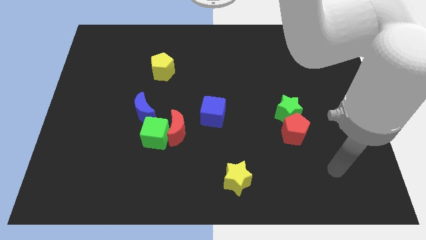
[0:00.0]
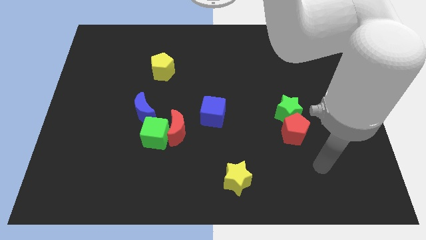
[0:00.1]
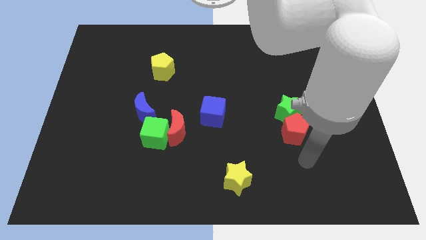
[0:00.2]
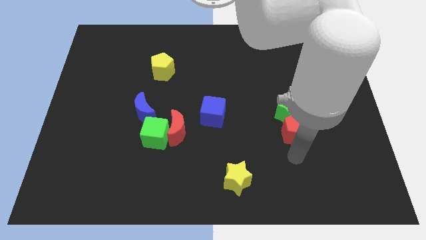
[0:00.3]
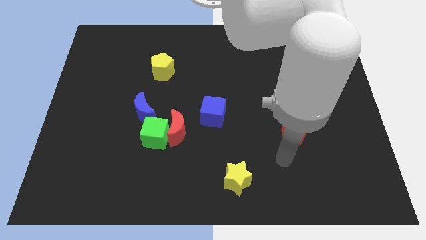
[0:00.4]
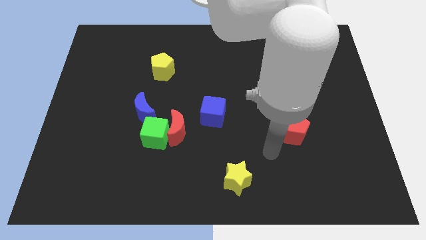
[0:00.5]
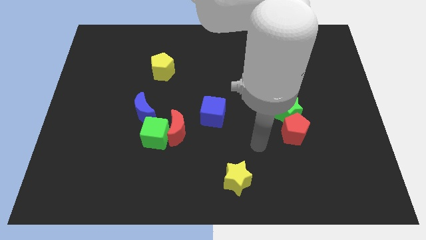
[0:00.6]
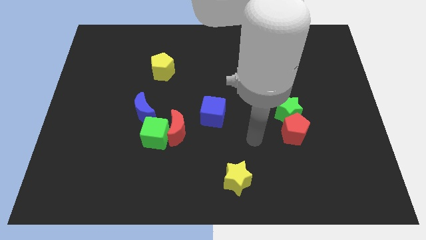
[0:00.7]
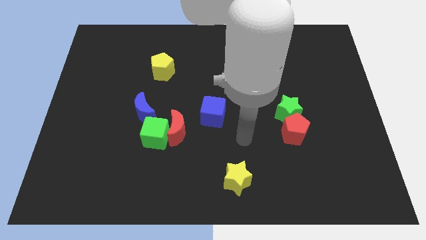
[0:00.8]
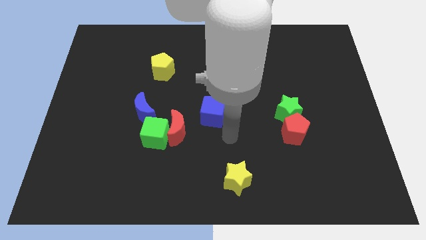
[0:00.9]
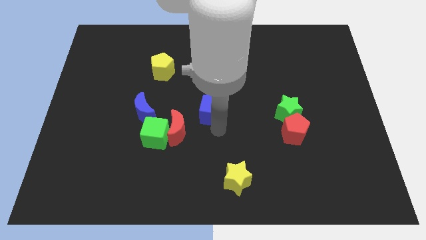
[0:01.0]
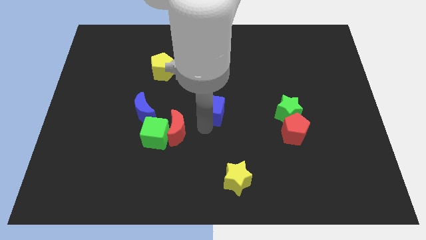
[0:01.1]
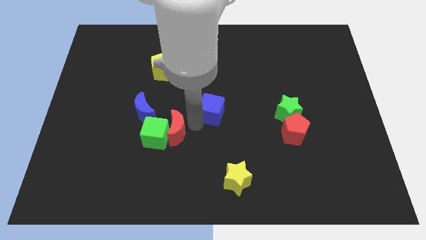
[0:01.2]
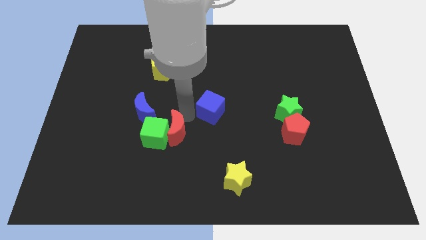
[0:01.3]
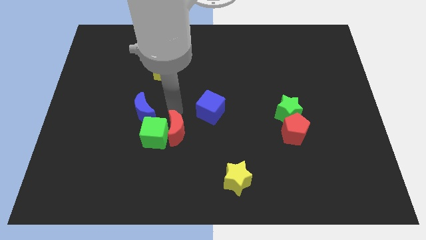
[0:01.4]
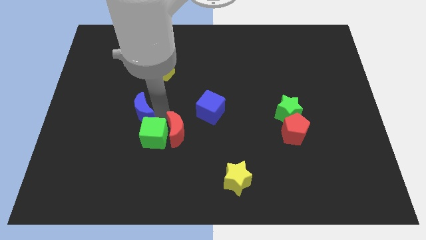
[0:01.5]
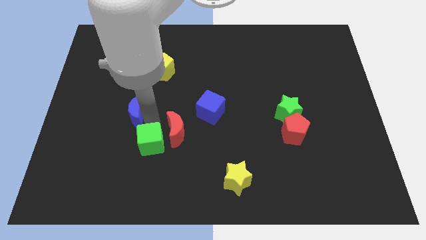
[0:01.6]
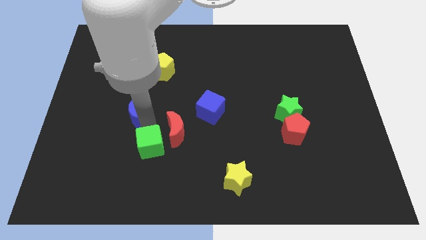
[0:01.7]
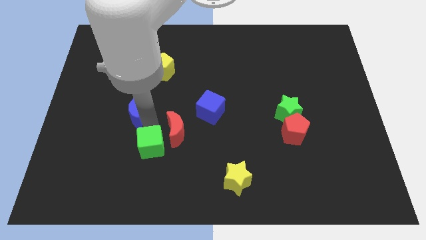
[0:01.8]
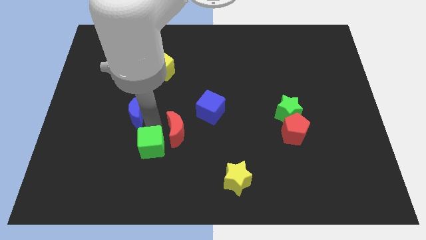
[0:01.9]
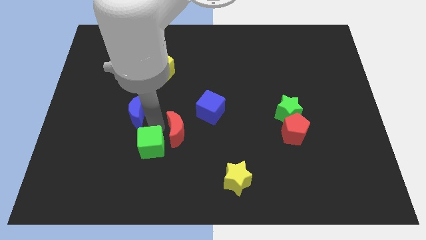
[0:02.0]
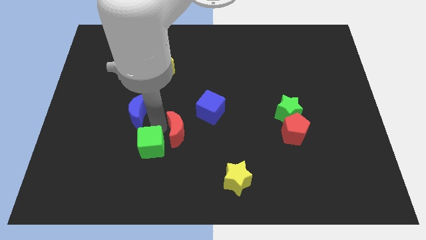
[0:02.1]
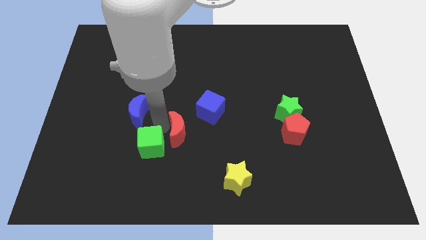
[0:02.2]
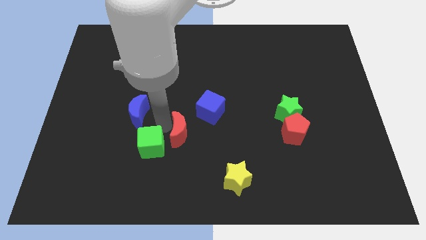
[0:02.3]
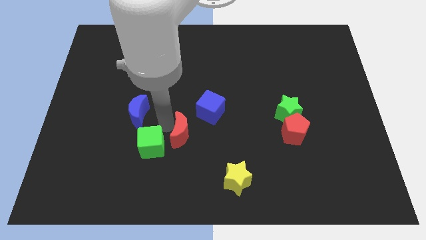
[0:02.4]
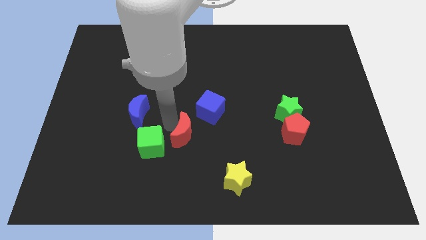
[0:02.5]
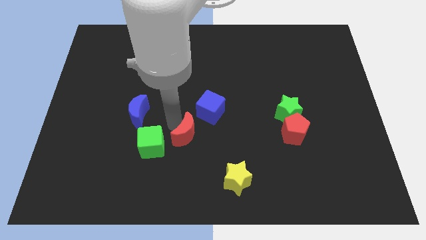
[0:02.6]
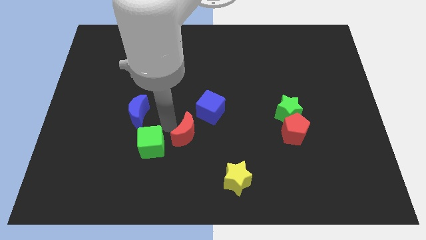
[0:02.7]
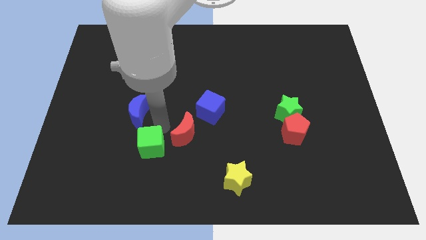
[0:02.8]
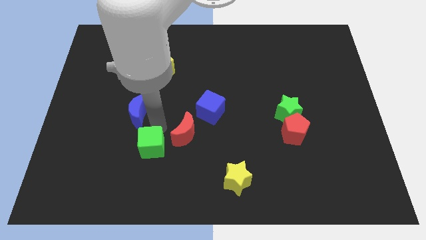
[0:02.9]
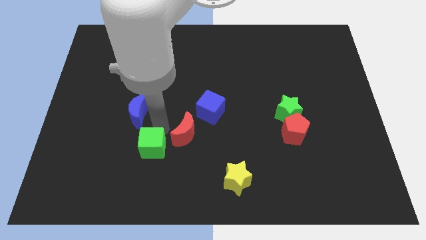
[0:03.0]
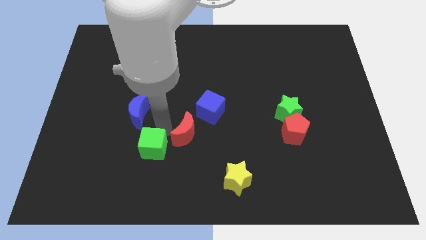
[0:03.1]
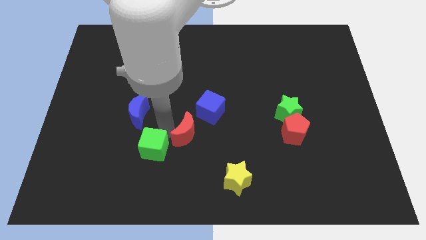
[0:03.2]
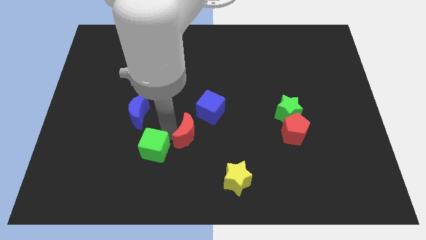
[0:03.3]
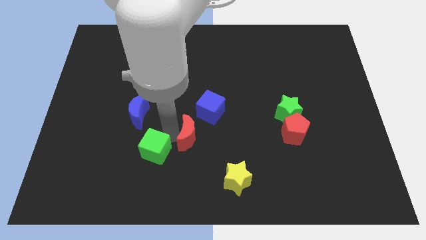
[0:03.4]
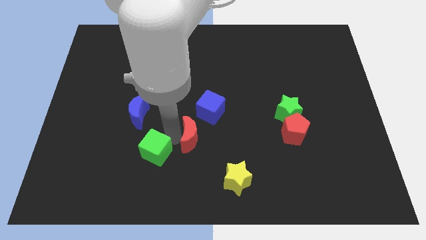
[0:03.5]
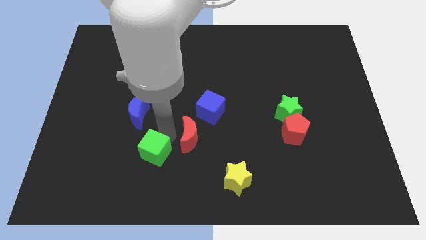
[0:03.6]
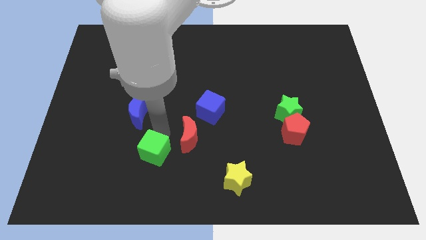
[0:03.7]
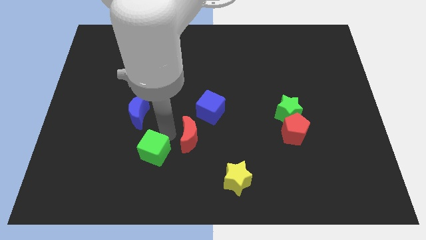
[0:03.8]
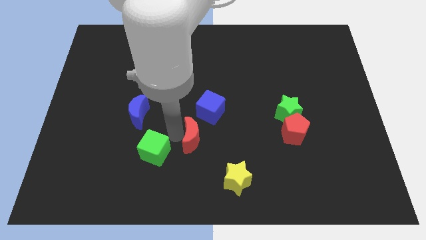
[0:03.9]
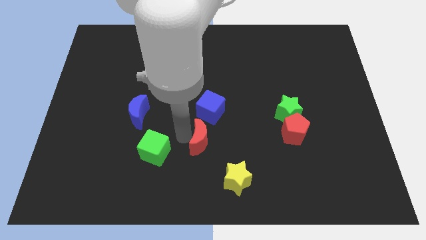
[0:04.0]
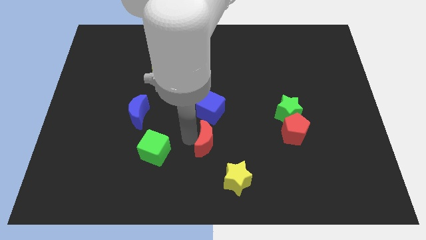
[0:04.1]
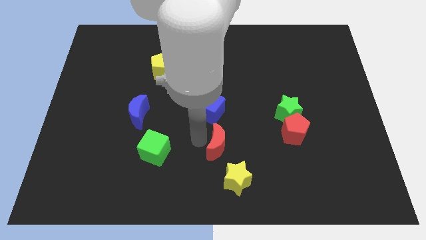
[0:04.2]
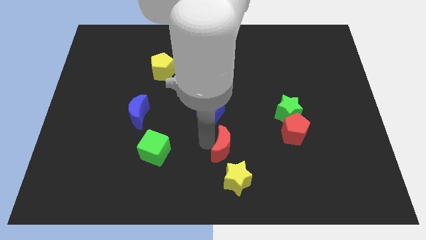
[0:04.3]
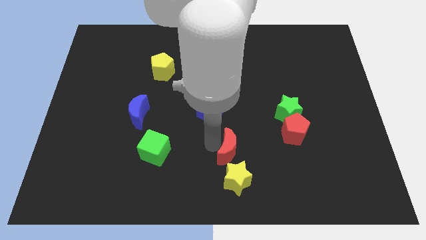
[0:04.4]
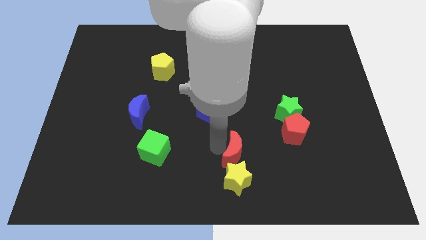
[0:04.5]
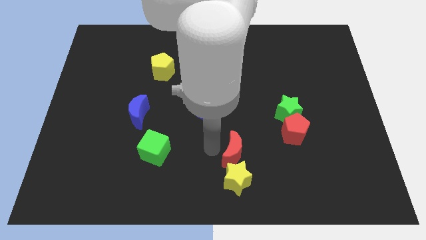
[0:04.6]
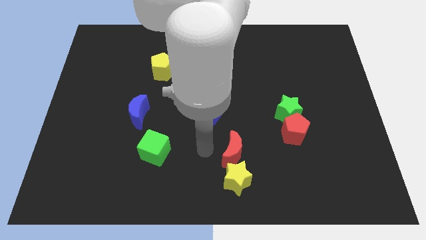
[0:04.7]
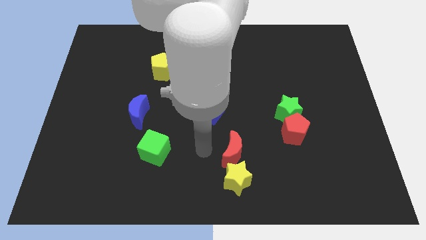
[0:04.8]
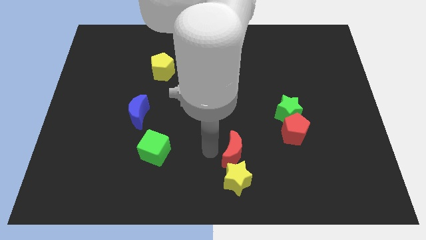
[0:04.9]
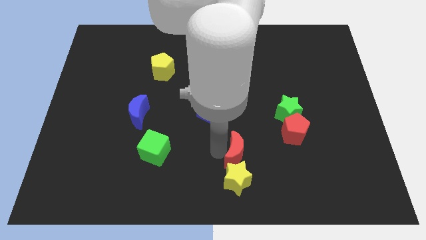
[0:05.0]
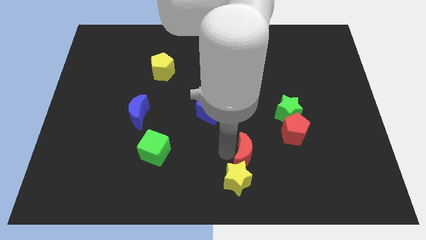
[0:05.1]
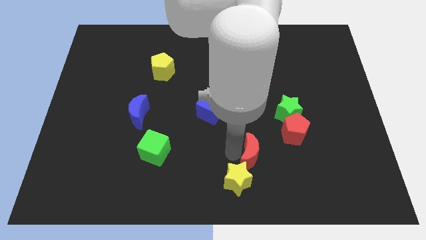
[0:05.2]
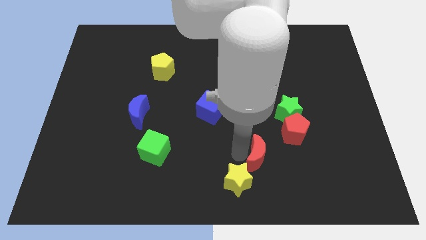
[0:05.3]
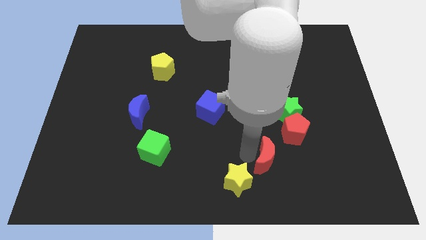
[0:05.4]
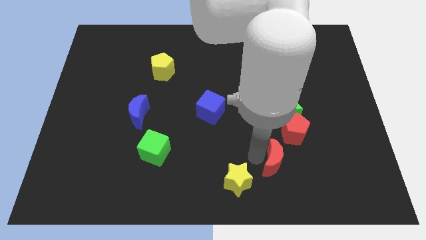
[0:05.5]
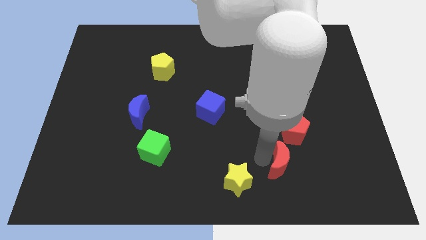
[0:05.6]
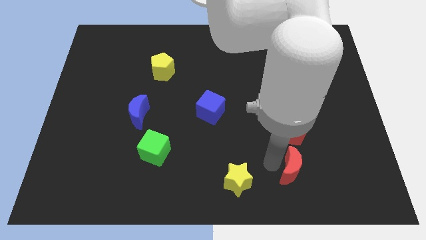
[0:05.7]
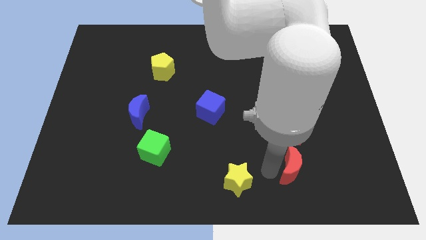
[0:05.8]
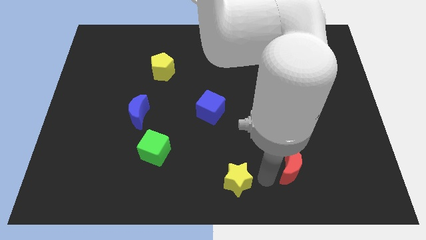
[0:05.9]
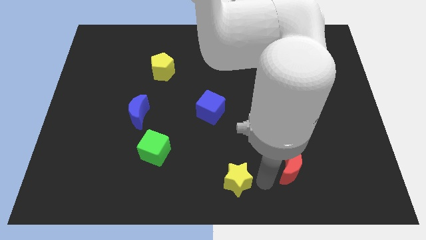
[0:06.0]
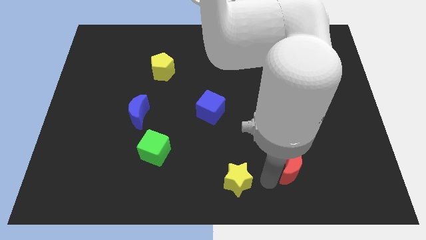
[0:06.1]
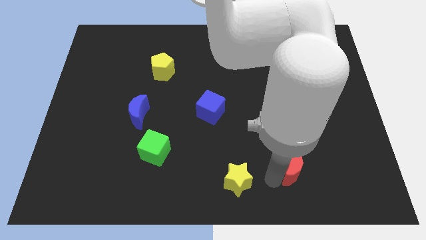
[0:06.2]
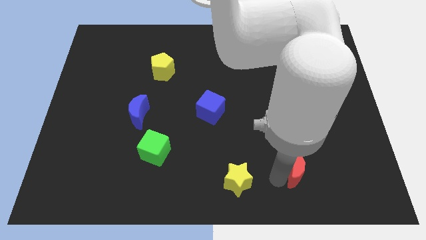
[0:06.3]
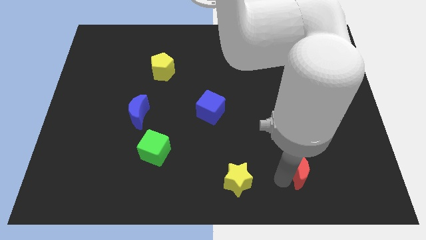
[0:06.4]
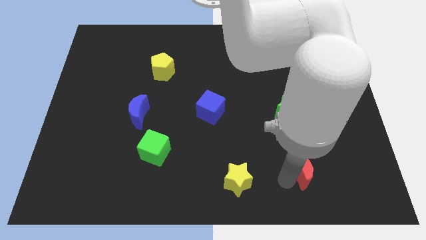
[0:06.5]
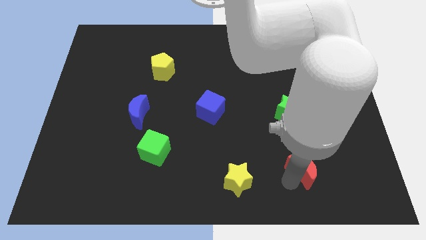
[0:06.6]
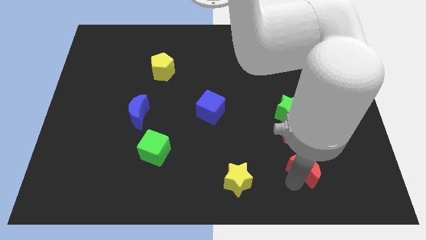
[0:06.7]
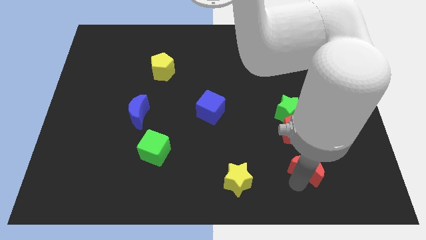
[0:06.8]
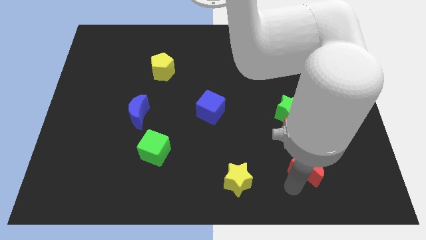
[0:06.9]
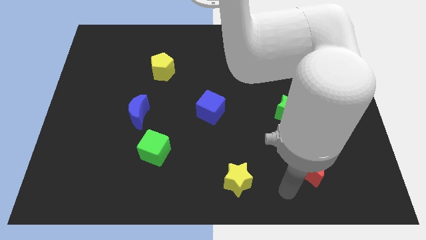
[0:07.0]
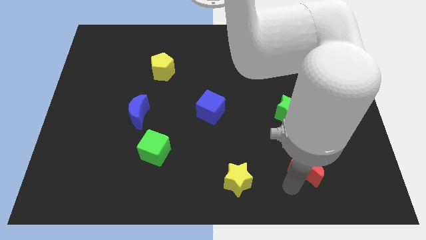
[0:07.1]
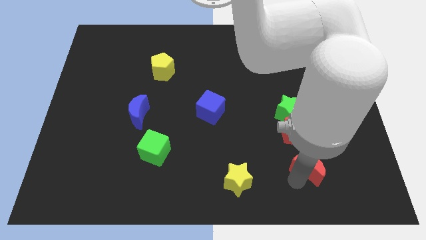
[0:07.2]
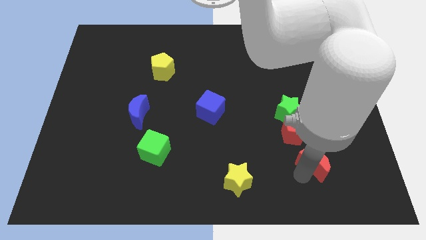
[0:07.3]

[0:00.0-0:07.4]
push the red moon to the bottom right of the red pentagon
